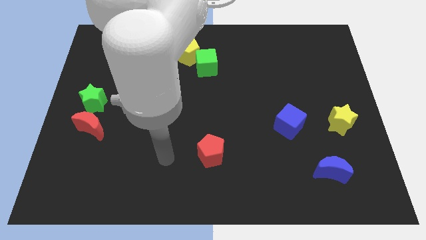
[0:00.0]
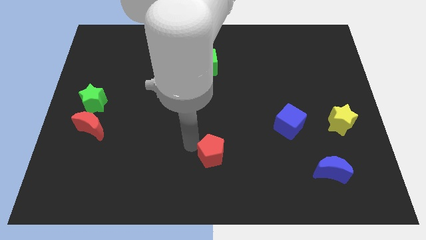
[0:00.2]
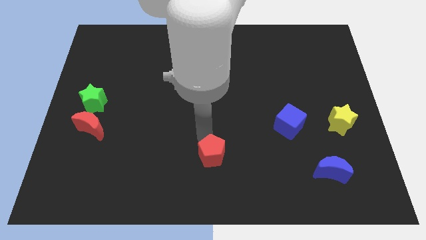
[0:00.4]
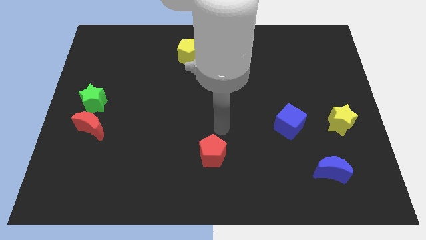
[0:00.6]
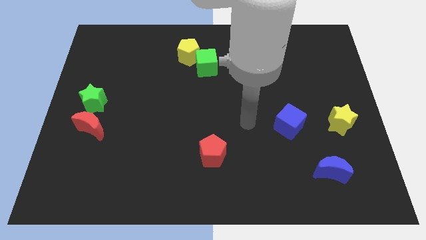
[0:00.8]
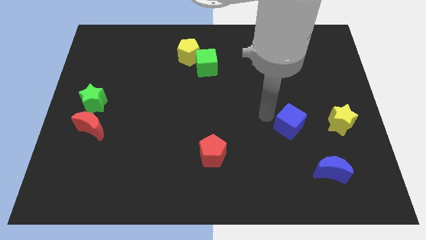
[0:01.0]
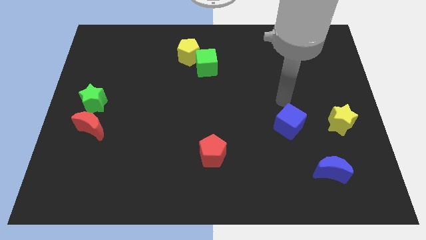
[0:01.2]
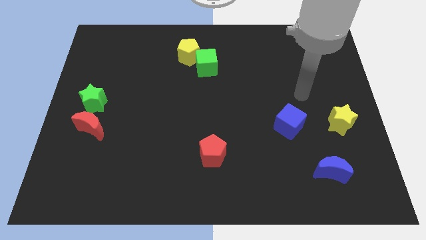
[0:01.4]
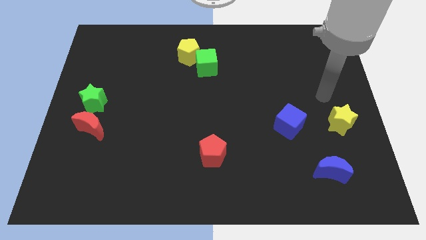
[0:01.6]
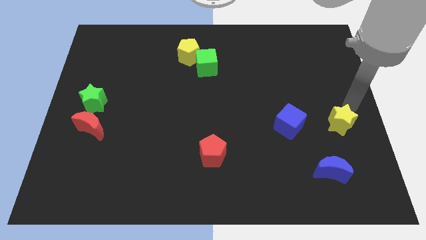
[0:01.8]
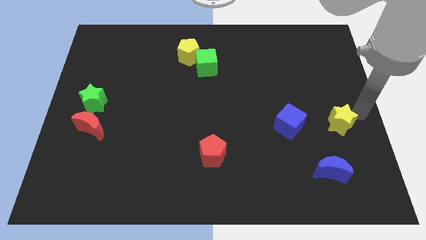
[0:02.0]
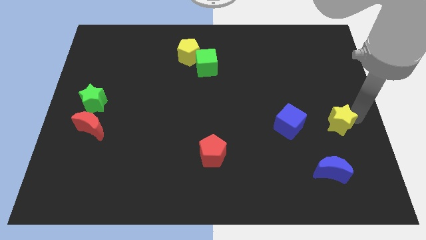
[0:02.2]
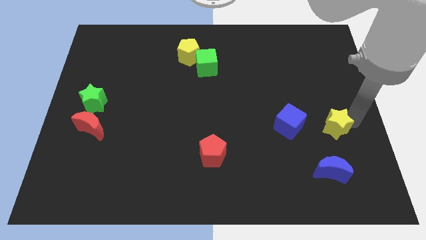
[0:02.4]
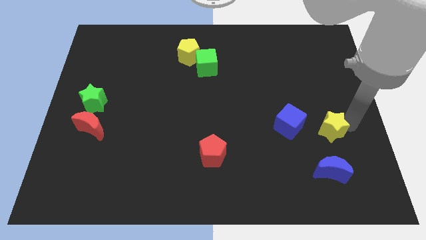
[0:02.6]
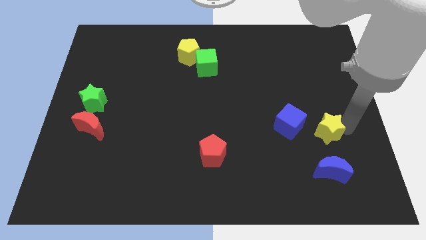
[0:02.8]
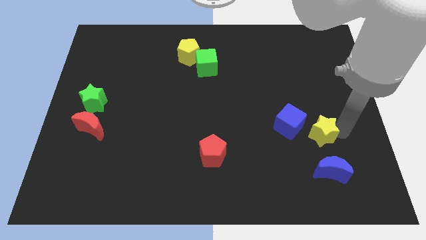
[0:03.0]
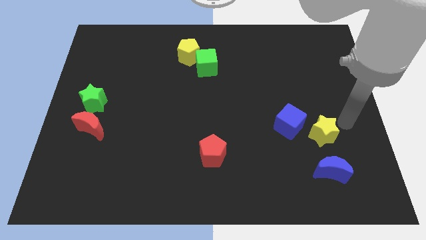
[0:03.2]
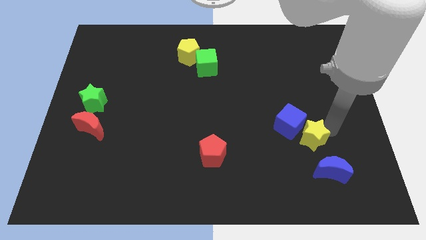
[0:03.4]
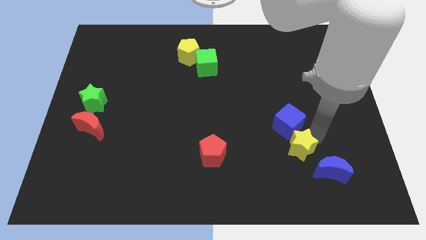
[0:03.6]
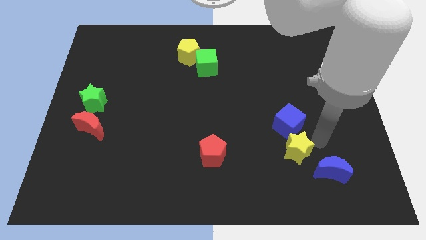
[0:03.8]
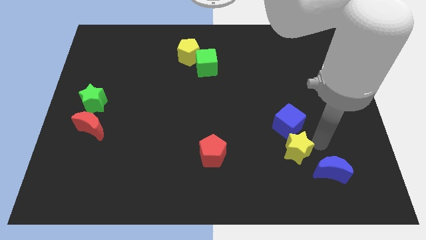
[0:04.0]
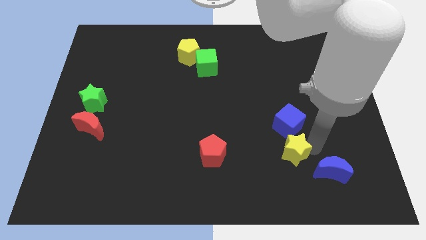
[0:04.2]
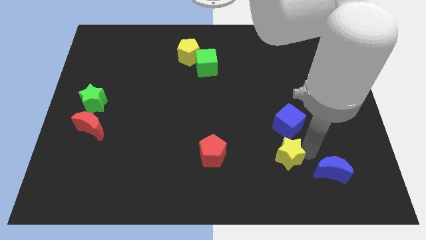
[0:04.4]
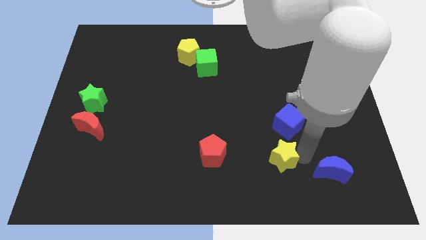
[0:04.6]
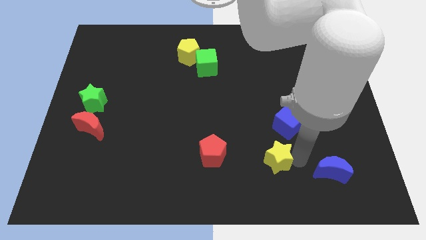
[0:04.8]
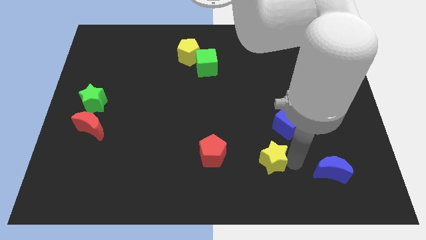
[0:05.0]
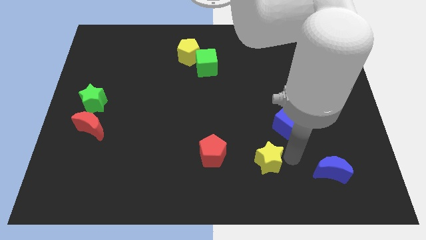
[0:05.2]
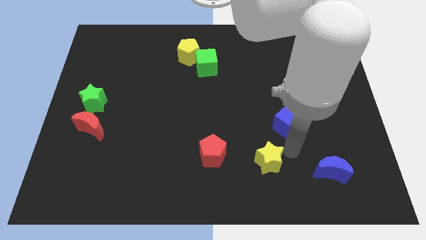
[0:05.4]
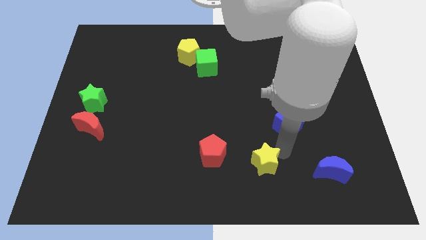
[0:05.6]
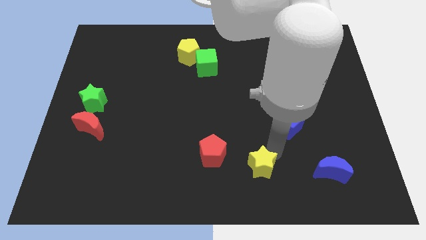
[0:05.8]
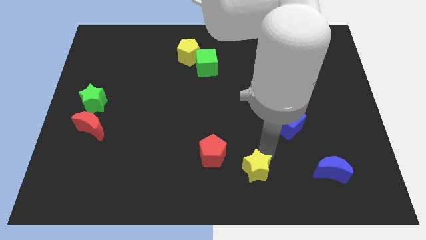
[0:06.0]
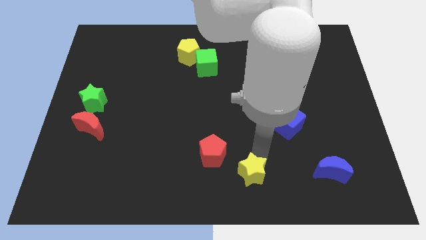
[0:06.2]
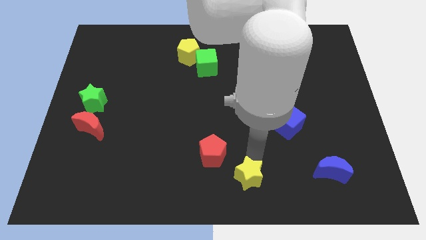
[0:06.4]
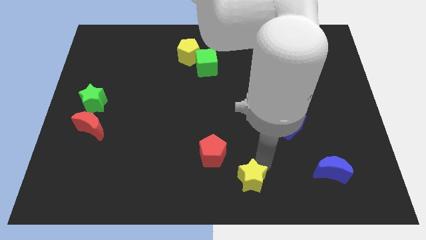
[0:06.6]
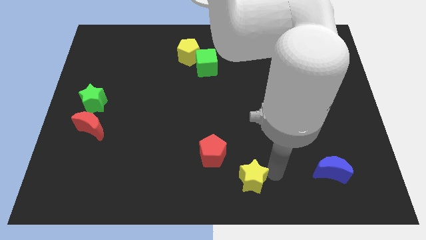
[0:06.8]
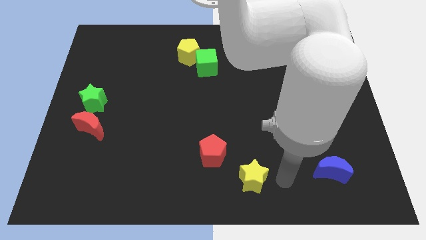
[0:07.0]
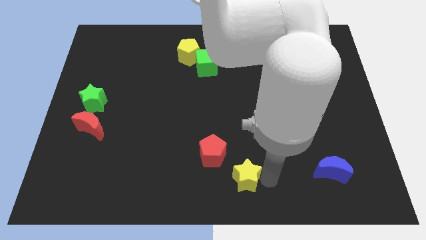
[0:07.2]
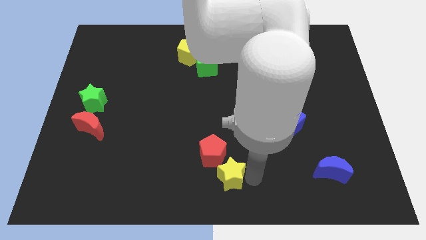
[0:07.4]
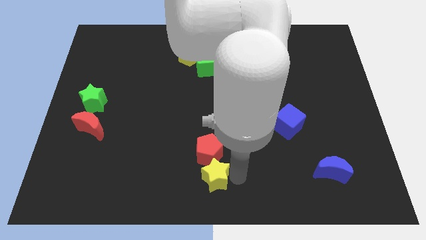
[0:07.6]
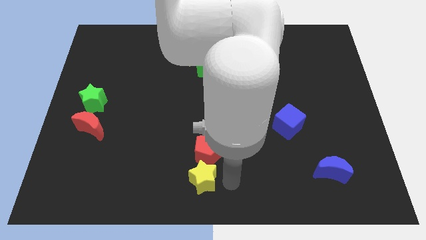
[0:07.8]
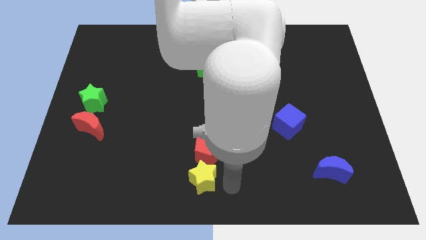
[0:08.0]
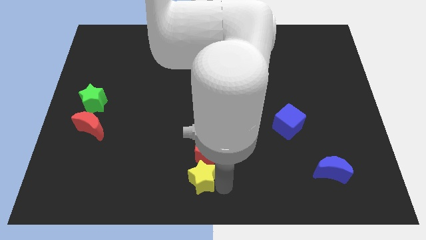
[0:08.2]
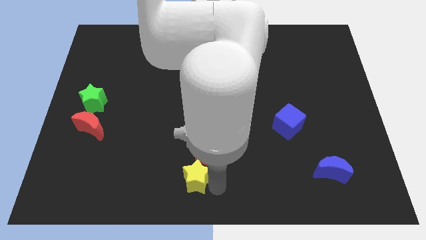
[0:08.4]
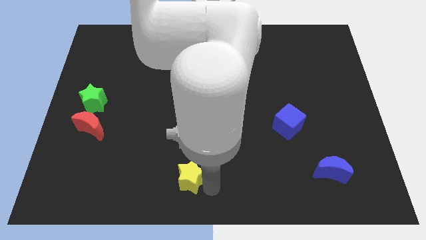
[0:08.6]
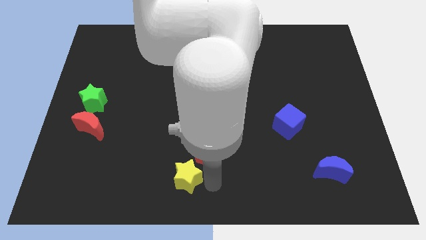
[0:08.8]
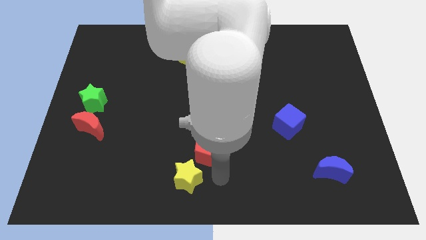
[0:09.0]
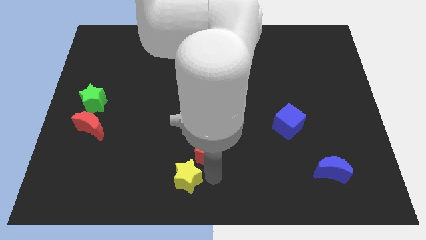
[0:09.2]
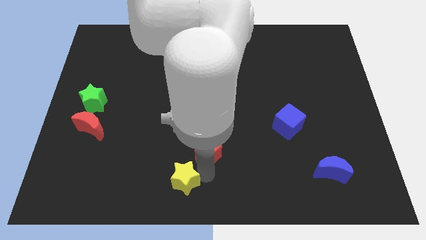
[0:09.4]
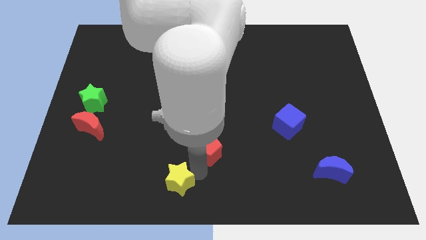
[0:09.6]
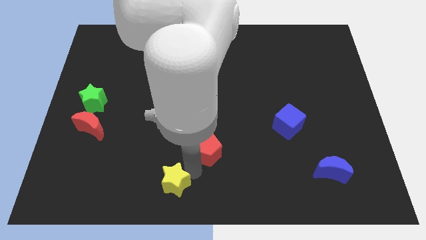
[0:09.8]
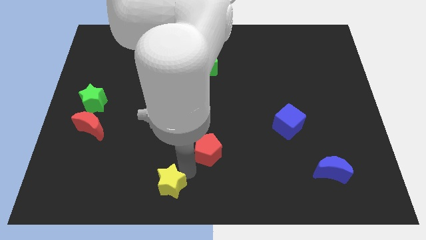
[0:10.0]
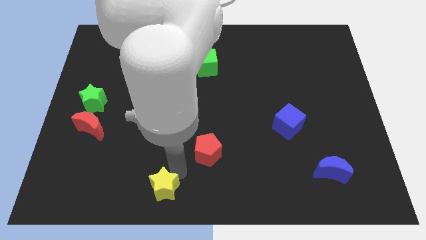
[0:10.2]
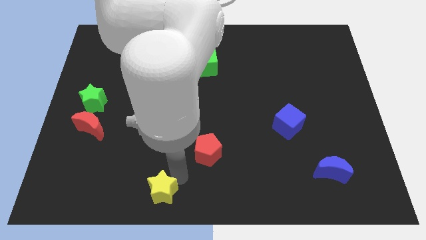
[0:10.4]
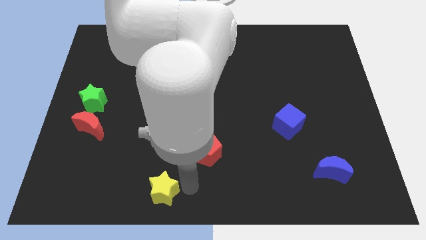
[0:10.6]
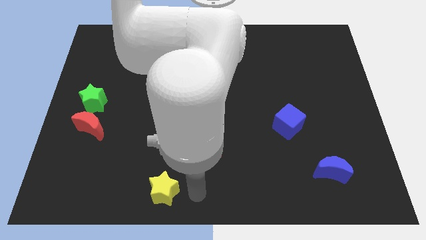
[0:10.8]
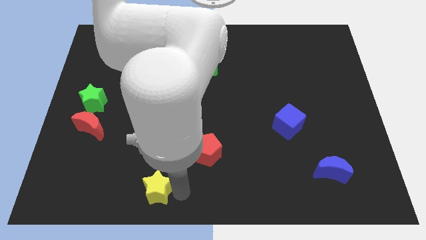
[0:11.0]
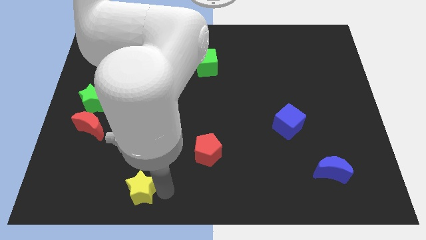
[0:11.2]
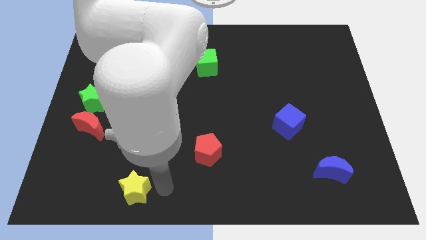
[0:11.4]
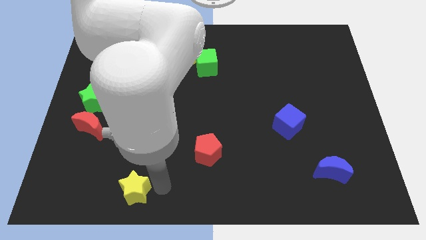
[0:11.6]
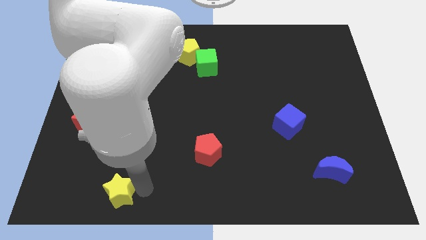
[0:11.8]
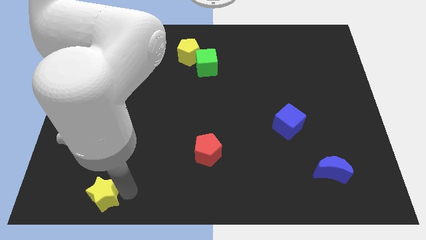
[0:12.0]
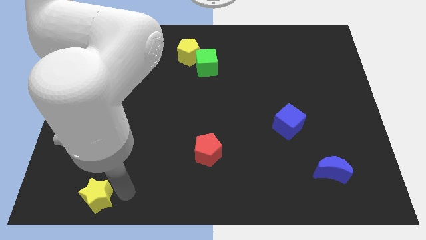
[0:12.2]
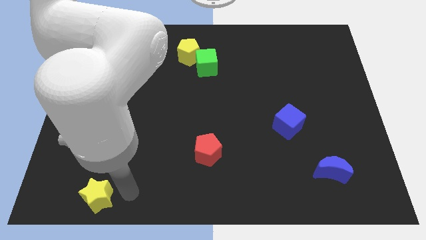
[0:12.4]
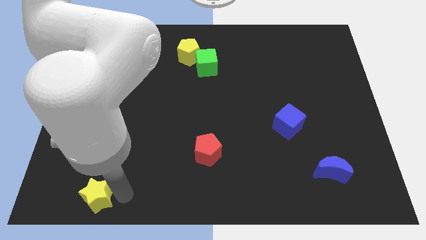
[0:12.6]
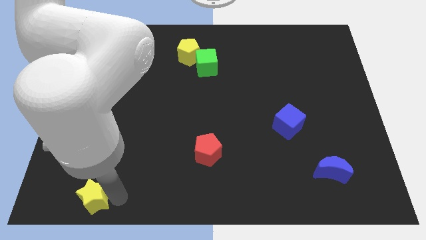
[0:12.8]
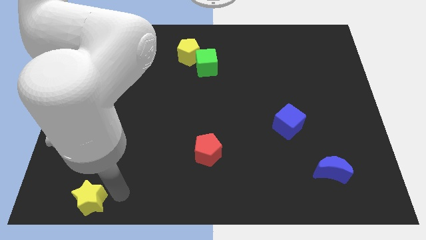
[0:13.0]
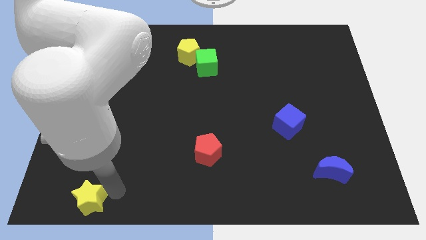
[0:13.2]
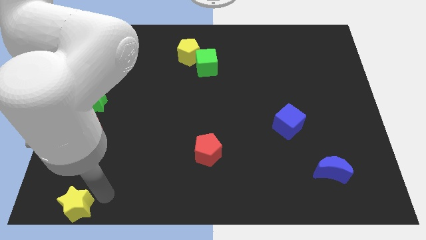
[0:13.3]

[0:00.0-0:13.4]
slide the yellow star to the bottom left of the board
